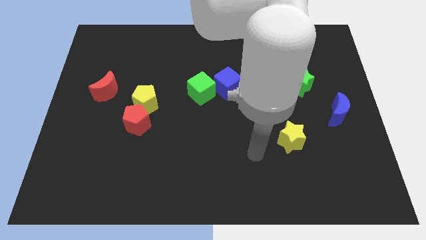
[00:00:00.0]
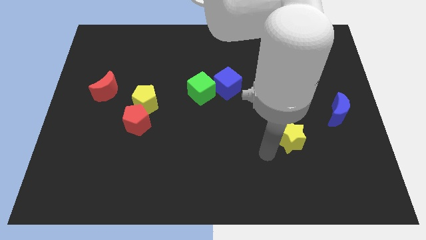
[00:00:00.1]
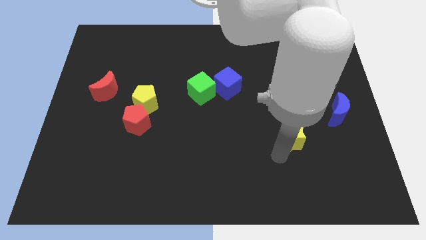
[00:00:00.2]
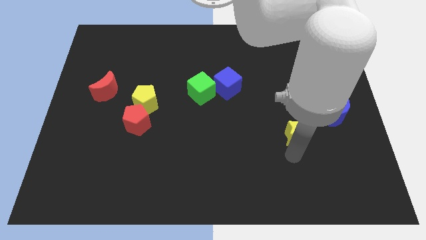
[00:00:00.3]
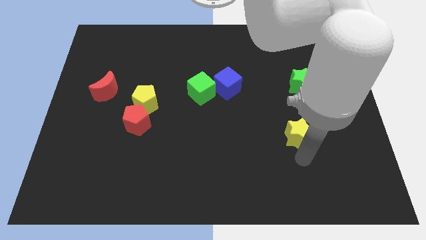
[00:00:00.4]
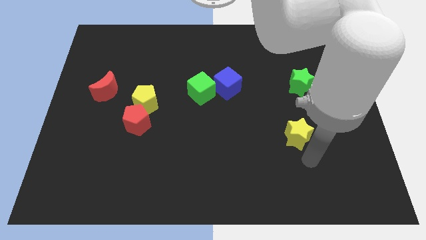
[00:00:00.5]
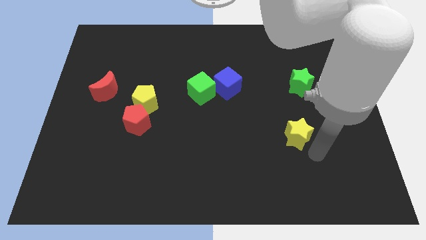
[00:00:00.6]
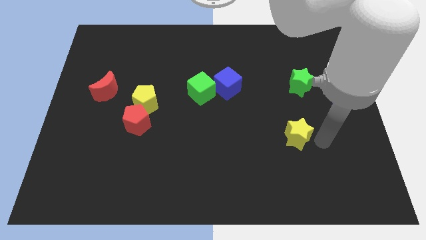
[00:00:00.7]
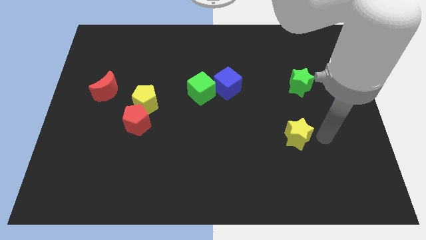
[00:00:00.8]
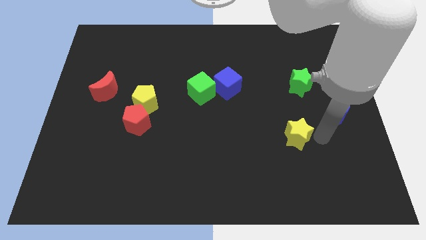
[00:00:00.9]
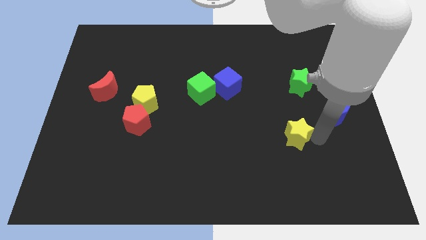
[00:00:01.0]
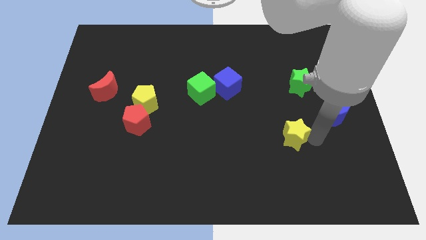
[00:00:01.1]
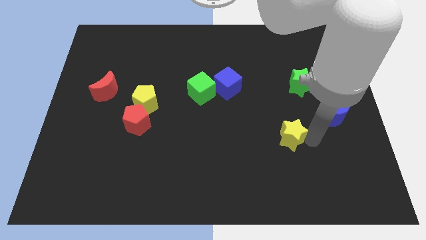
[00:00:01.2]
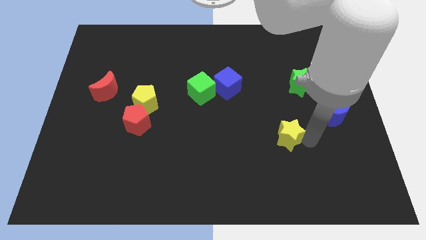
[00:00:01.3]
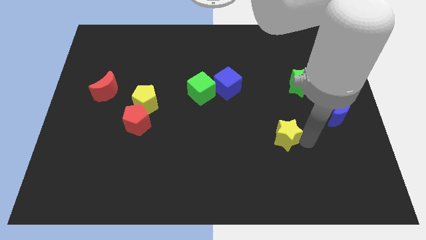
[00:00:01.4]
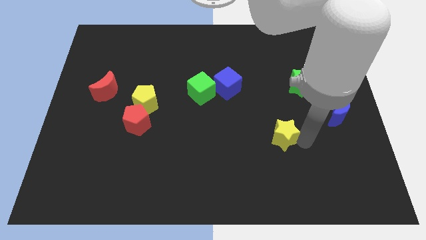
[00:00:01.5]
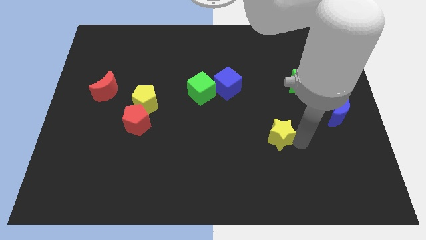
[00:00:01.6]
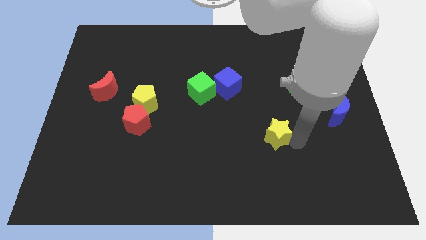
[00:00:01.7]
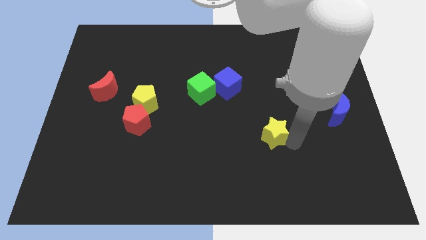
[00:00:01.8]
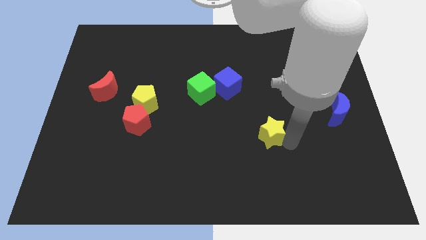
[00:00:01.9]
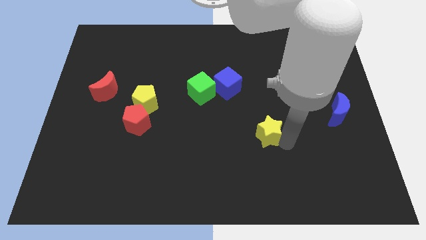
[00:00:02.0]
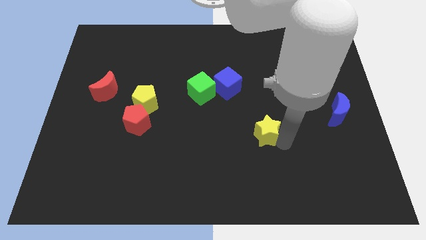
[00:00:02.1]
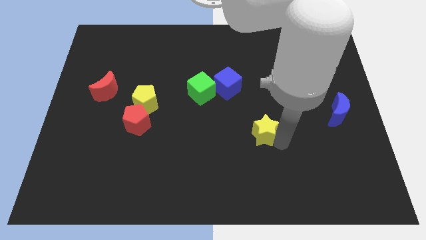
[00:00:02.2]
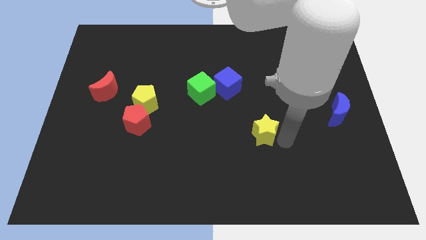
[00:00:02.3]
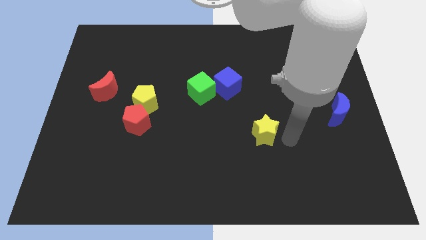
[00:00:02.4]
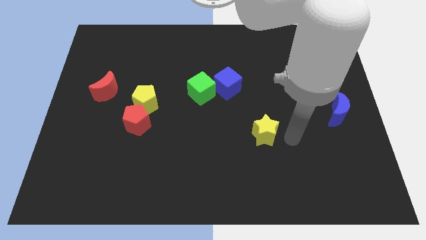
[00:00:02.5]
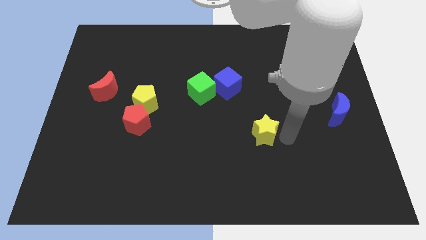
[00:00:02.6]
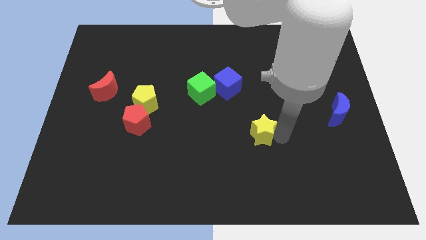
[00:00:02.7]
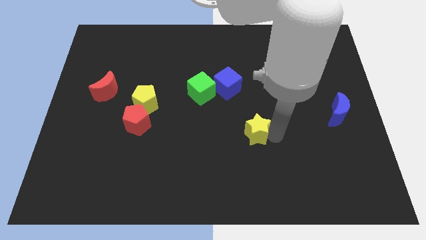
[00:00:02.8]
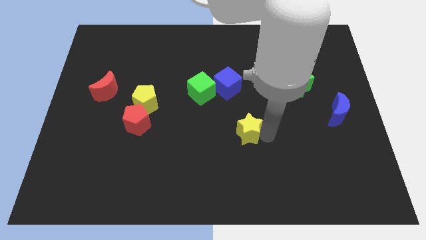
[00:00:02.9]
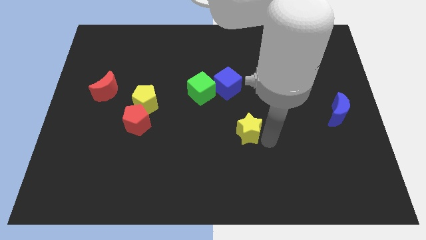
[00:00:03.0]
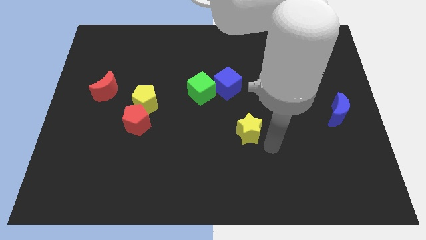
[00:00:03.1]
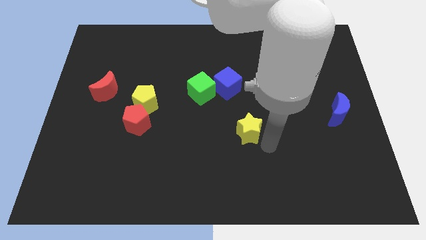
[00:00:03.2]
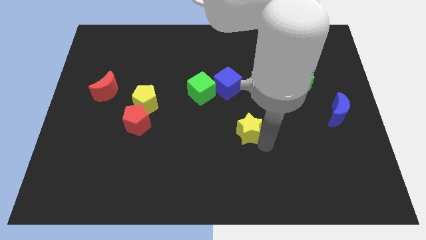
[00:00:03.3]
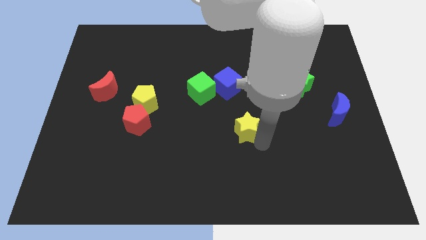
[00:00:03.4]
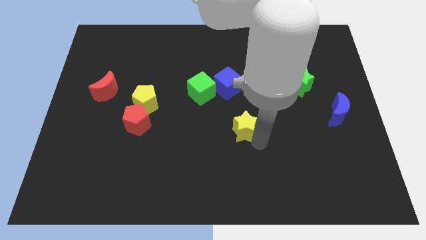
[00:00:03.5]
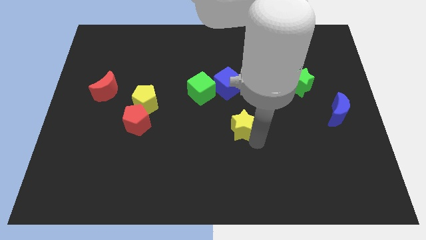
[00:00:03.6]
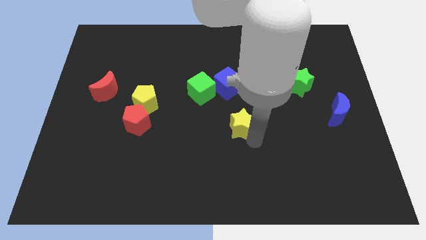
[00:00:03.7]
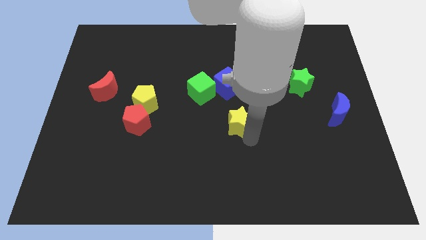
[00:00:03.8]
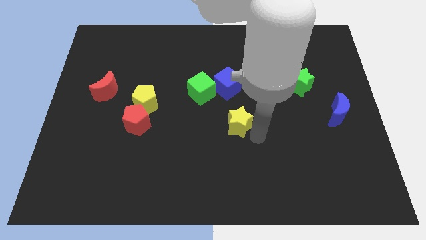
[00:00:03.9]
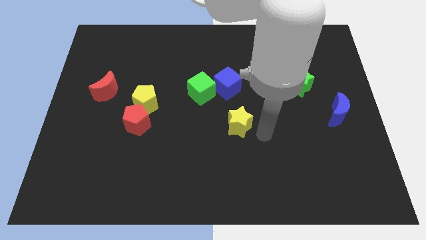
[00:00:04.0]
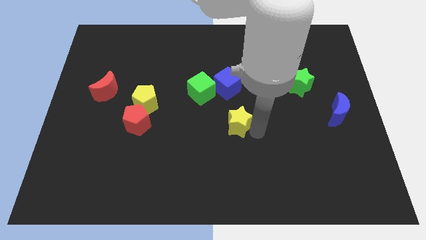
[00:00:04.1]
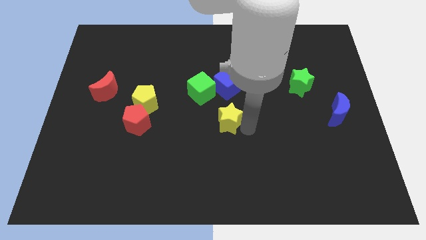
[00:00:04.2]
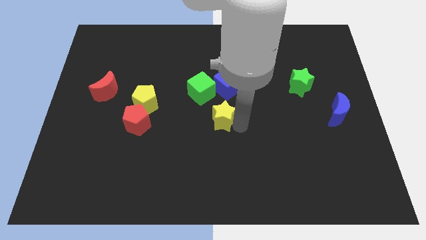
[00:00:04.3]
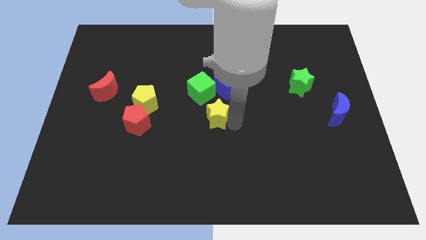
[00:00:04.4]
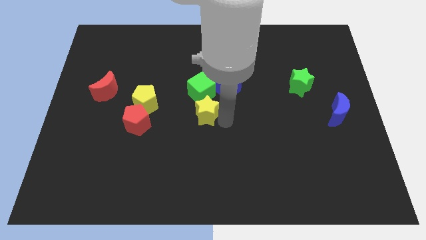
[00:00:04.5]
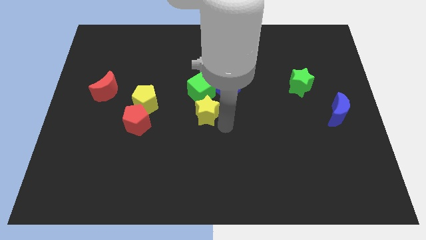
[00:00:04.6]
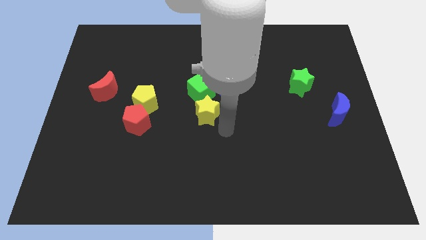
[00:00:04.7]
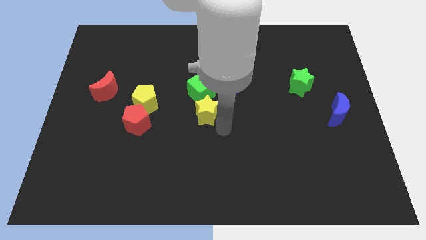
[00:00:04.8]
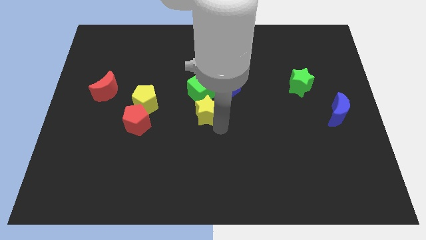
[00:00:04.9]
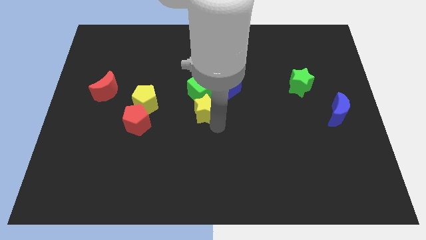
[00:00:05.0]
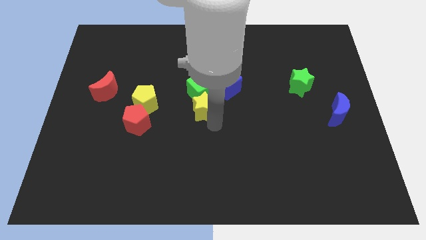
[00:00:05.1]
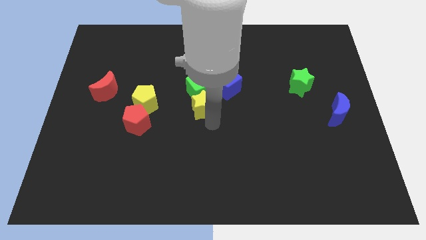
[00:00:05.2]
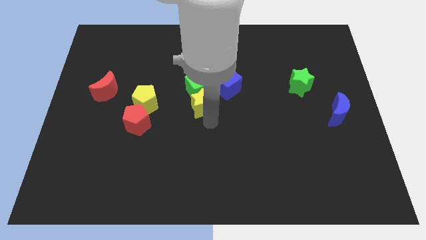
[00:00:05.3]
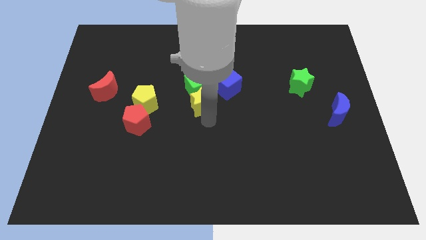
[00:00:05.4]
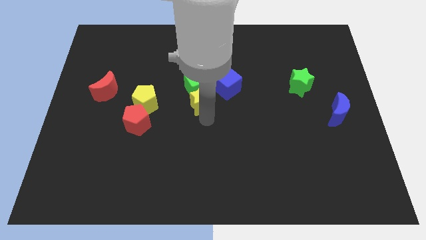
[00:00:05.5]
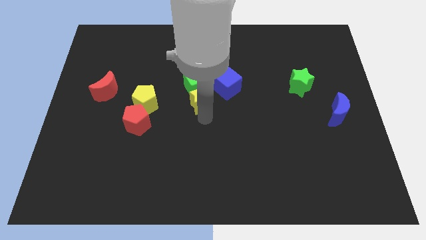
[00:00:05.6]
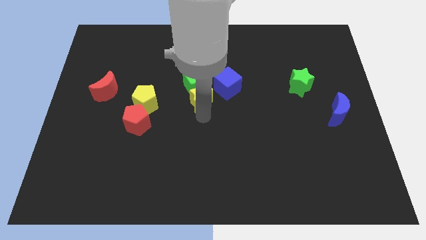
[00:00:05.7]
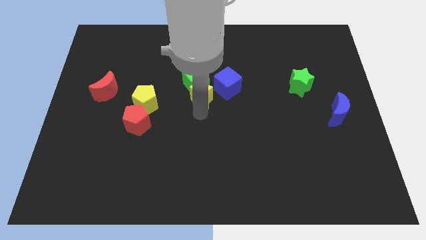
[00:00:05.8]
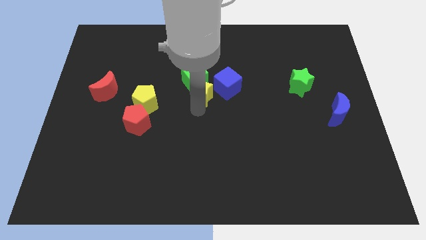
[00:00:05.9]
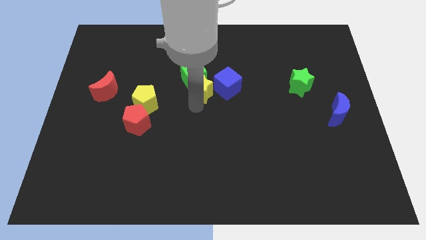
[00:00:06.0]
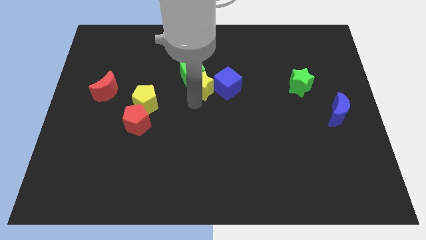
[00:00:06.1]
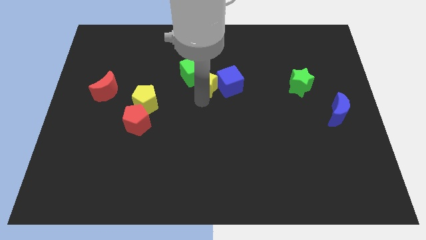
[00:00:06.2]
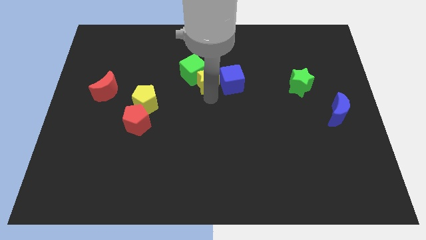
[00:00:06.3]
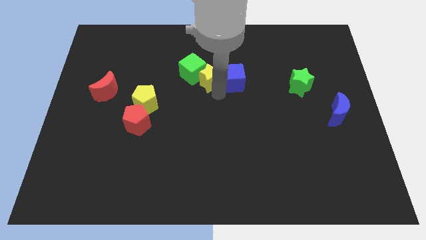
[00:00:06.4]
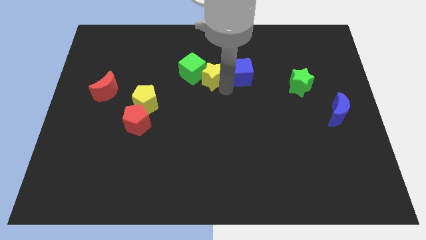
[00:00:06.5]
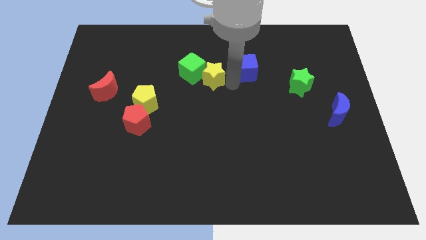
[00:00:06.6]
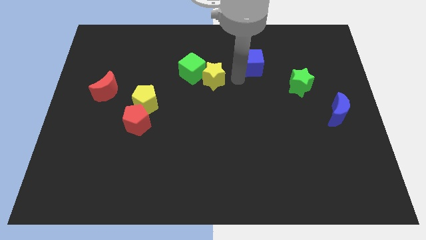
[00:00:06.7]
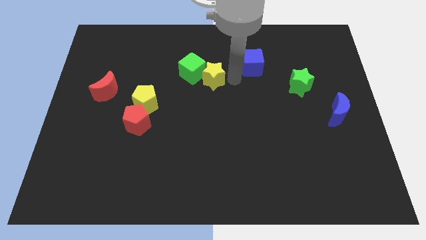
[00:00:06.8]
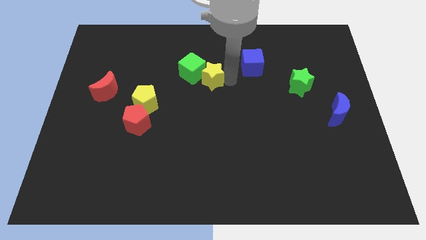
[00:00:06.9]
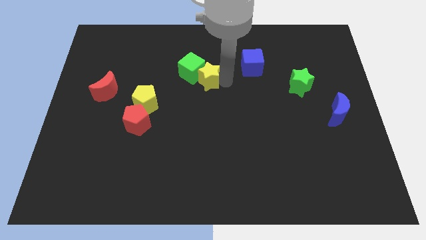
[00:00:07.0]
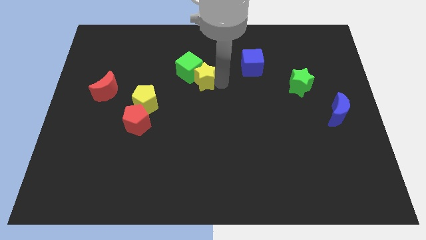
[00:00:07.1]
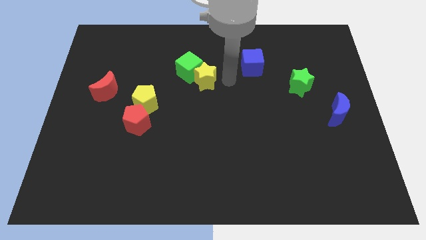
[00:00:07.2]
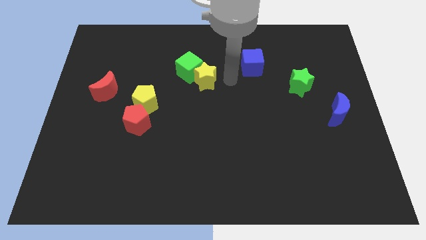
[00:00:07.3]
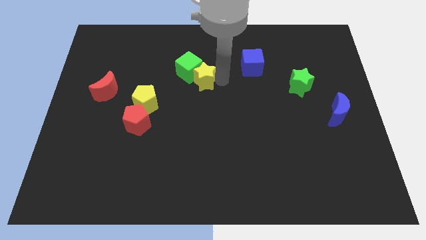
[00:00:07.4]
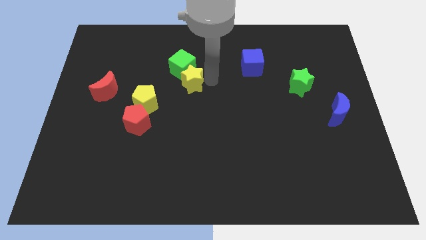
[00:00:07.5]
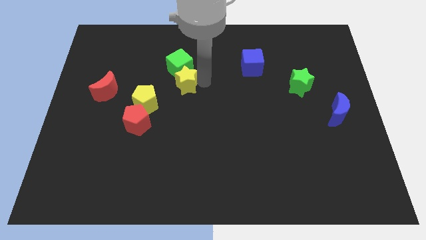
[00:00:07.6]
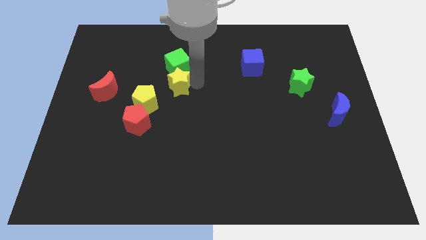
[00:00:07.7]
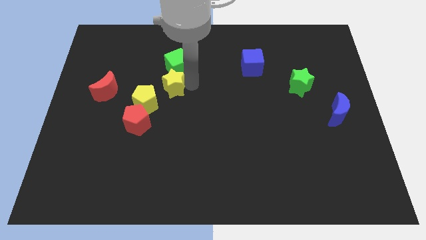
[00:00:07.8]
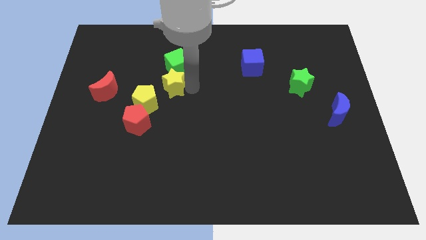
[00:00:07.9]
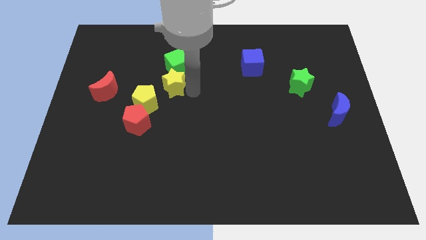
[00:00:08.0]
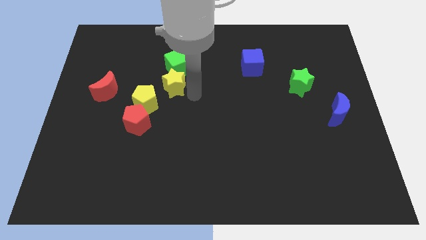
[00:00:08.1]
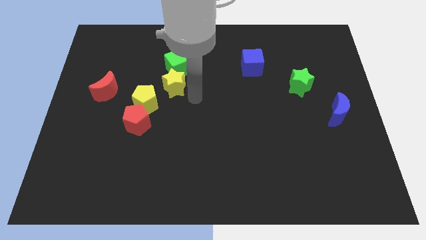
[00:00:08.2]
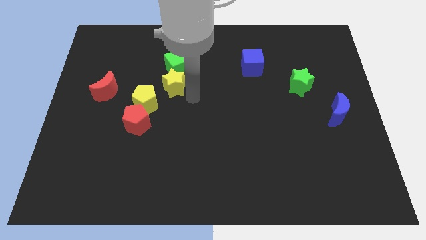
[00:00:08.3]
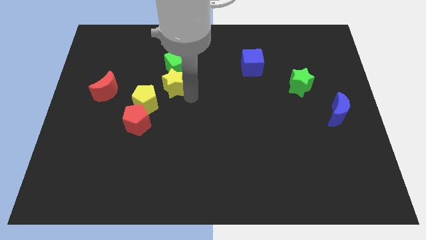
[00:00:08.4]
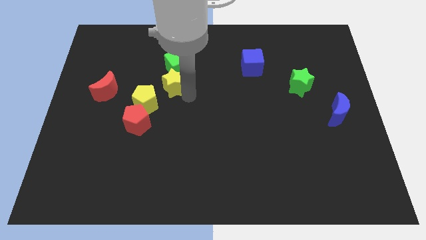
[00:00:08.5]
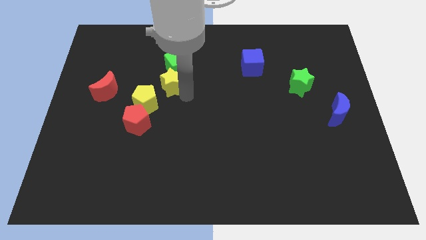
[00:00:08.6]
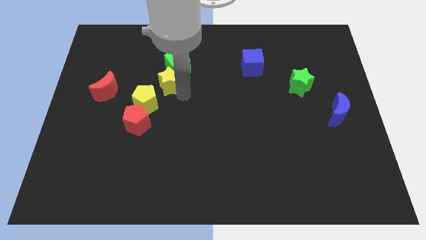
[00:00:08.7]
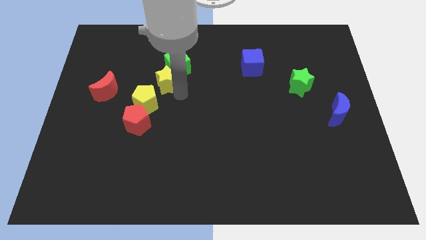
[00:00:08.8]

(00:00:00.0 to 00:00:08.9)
put the yellow star above the yellow pentagon
